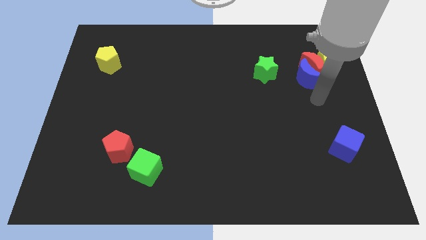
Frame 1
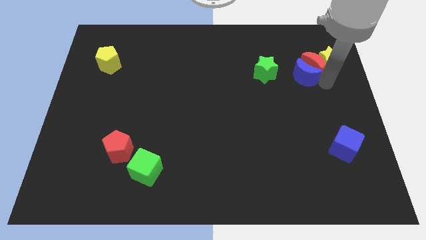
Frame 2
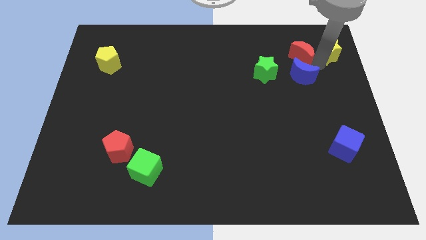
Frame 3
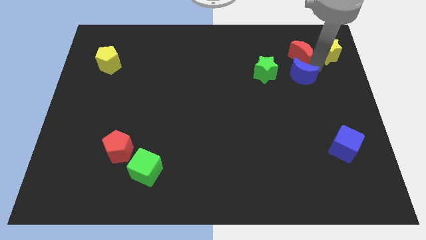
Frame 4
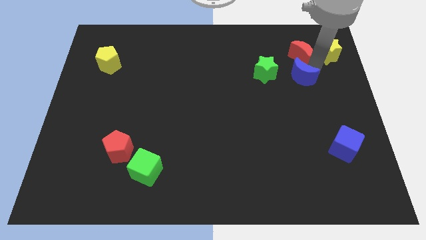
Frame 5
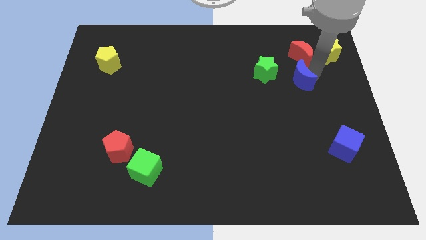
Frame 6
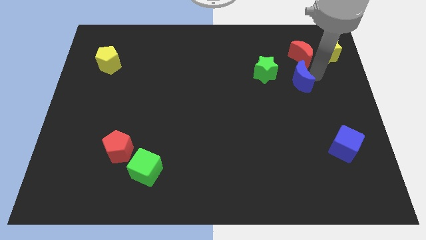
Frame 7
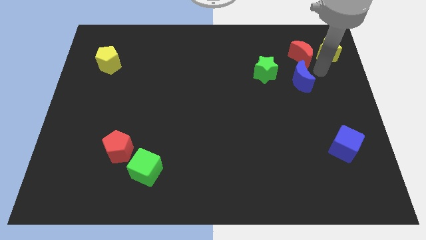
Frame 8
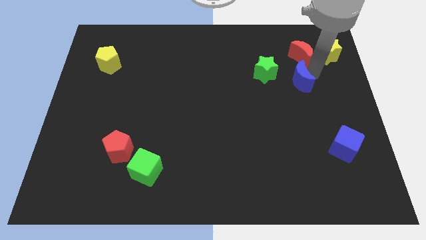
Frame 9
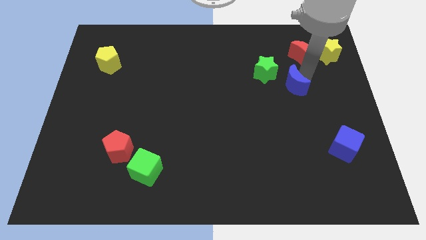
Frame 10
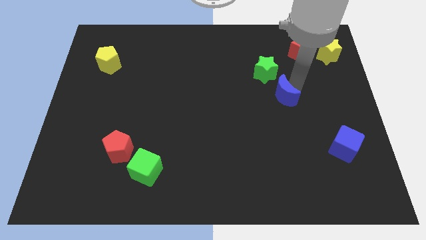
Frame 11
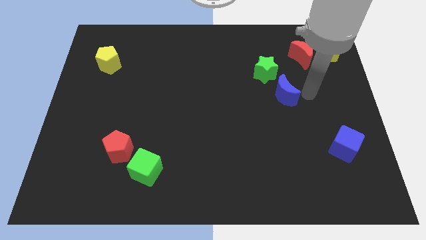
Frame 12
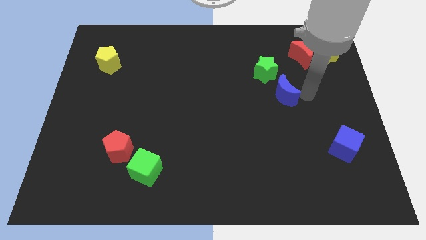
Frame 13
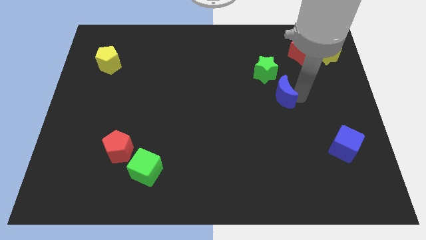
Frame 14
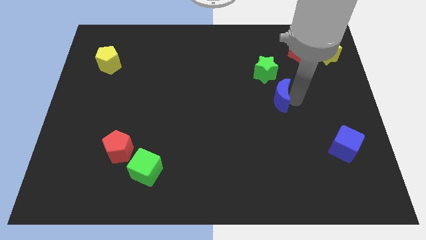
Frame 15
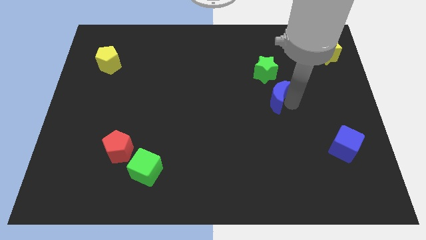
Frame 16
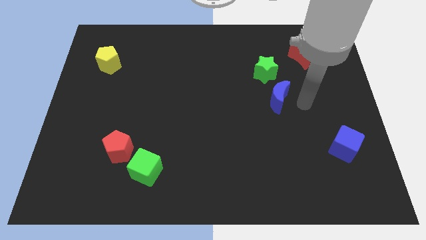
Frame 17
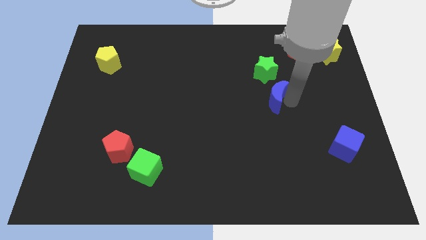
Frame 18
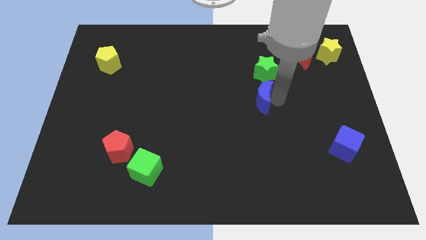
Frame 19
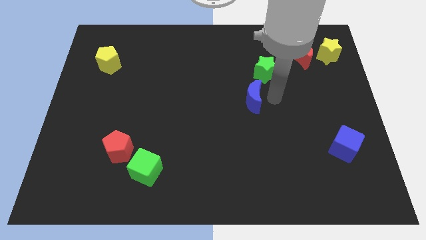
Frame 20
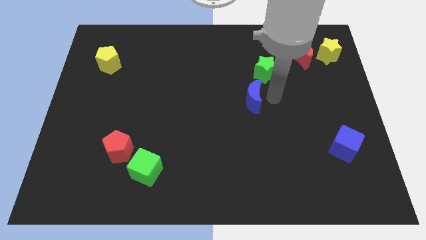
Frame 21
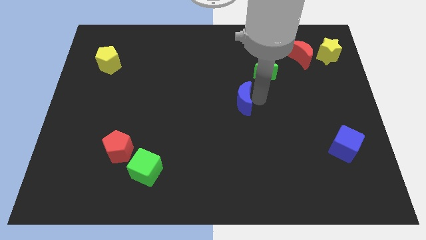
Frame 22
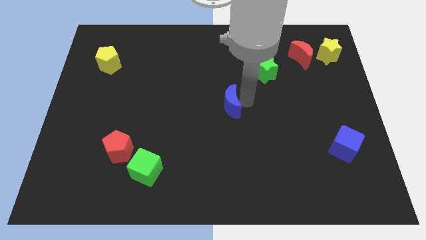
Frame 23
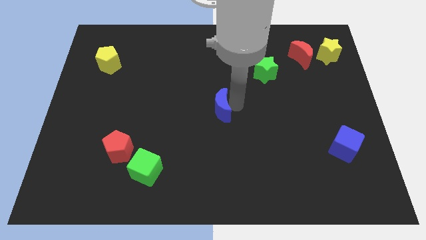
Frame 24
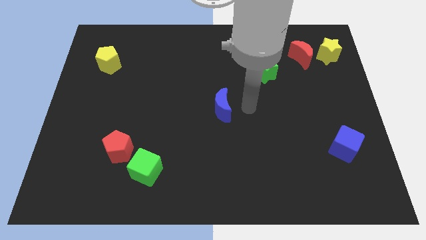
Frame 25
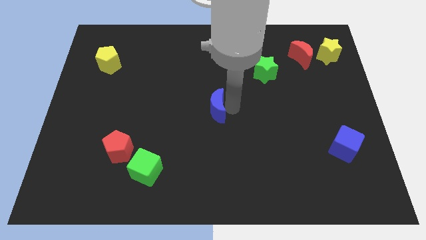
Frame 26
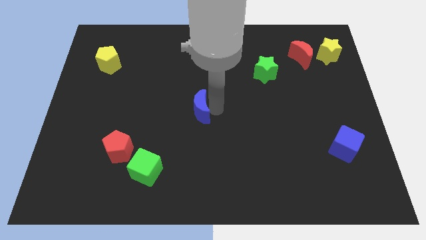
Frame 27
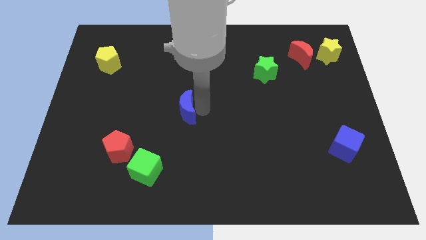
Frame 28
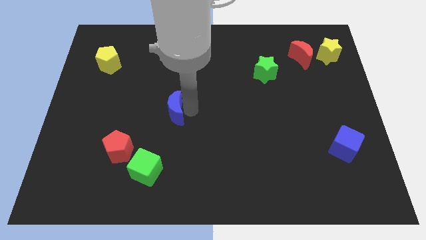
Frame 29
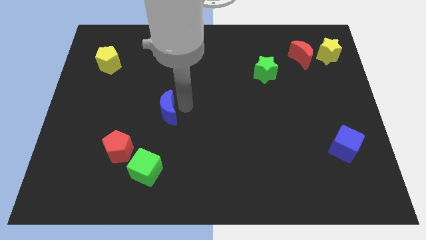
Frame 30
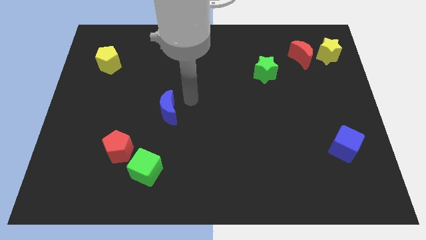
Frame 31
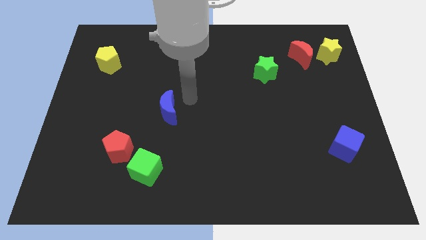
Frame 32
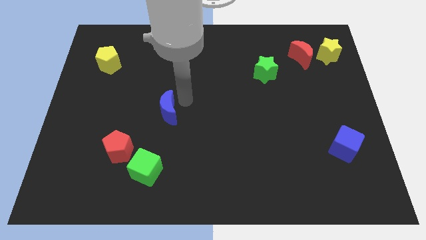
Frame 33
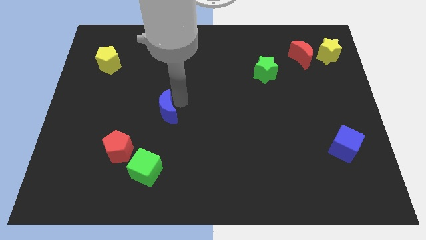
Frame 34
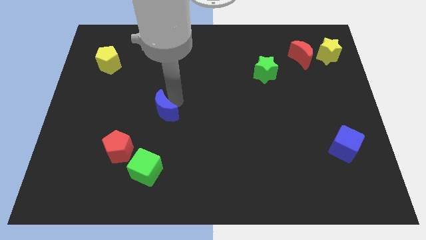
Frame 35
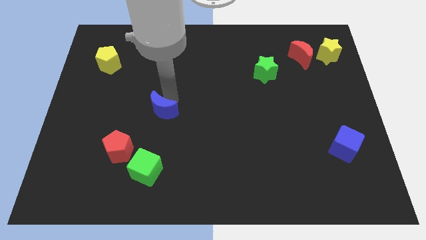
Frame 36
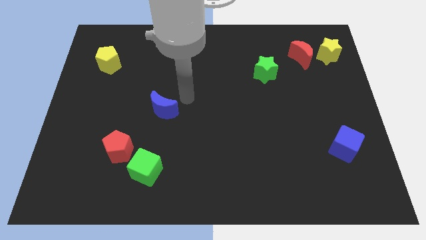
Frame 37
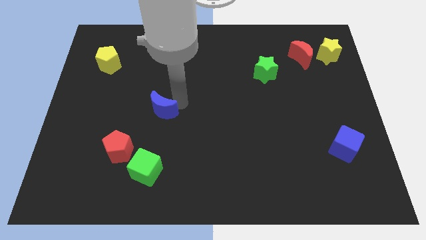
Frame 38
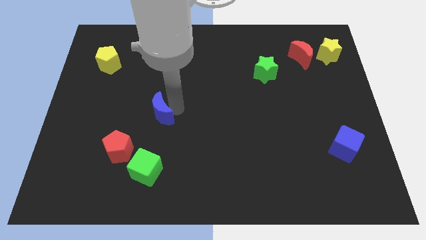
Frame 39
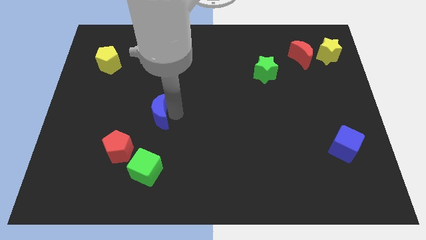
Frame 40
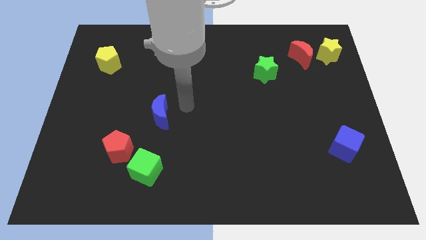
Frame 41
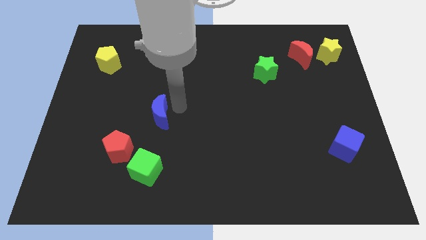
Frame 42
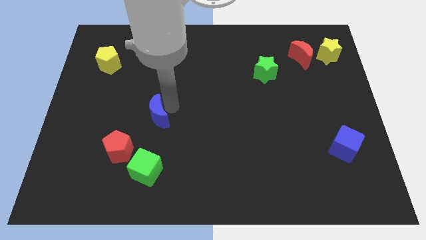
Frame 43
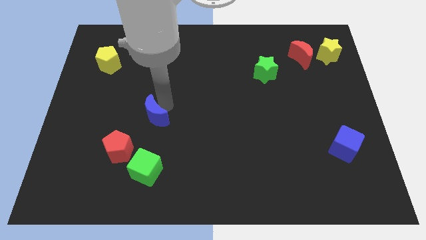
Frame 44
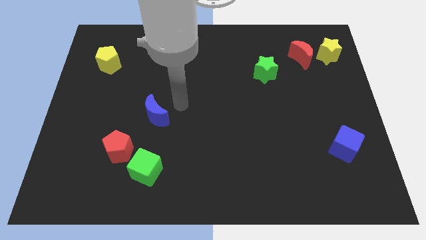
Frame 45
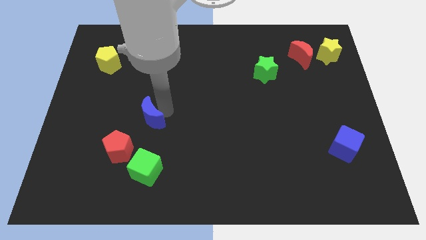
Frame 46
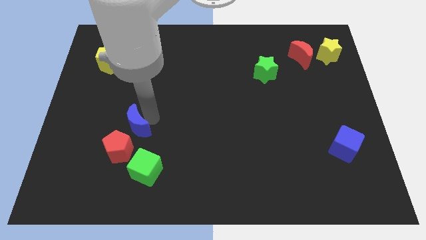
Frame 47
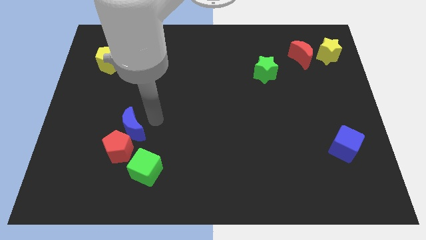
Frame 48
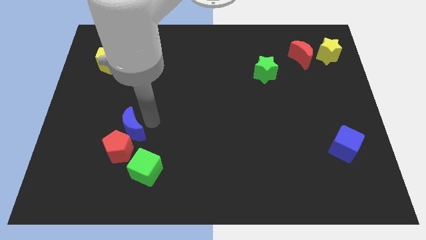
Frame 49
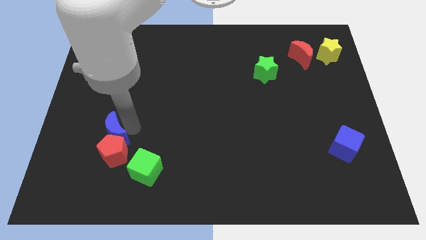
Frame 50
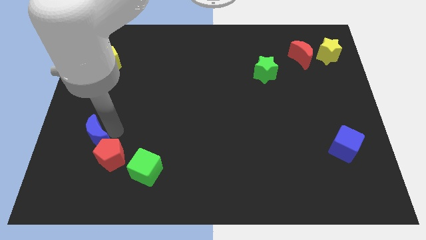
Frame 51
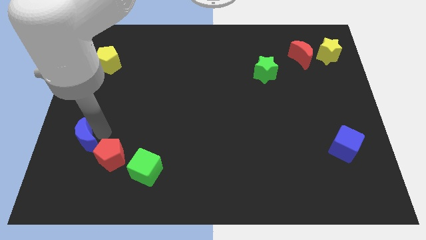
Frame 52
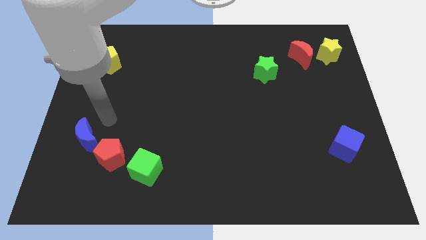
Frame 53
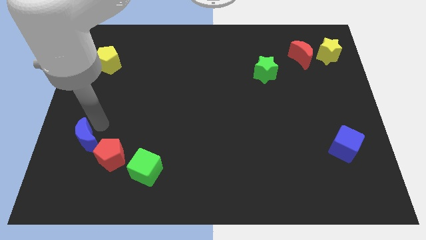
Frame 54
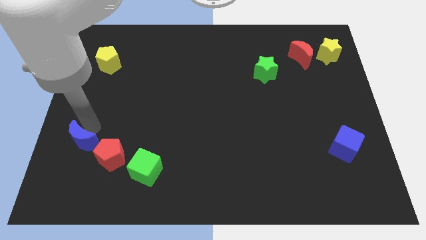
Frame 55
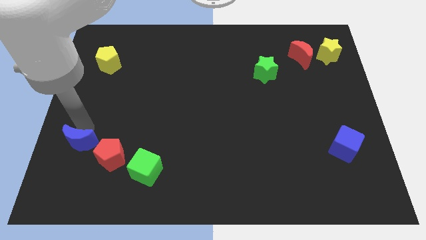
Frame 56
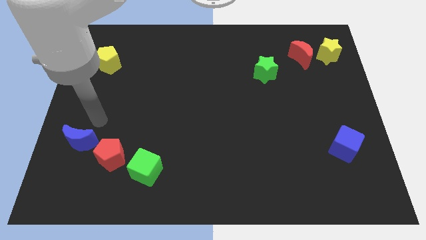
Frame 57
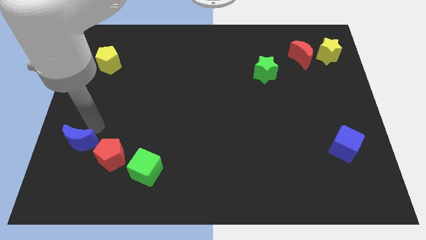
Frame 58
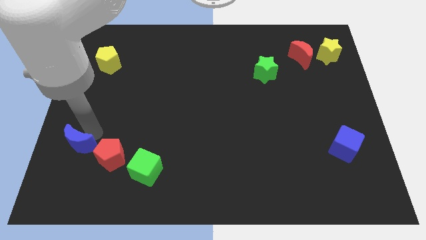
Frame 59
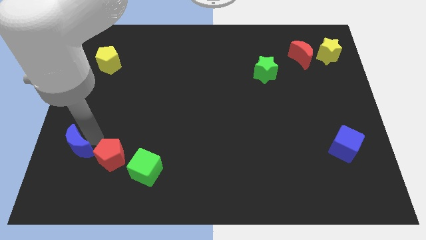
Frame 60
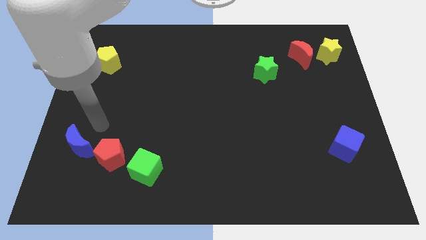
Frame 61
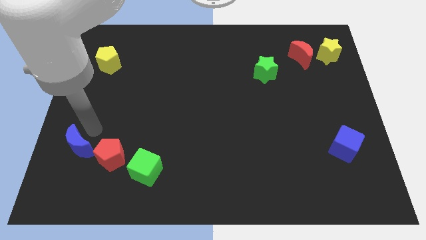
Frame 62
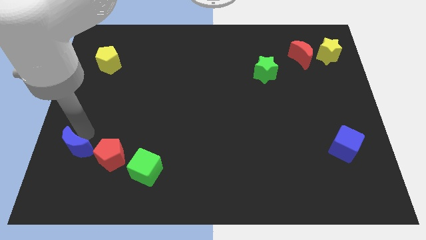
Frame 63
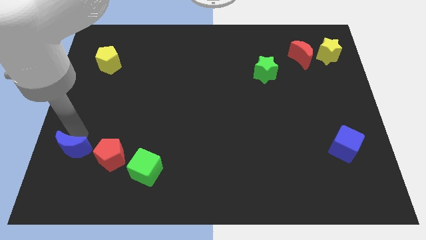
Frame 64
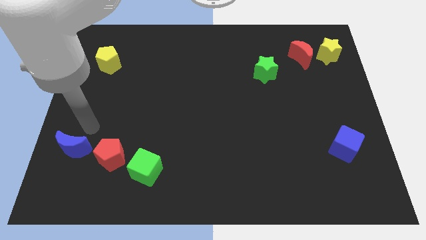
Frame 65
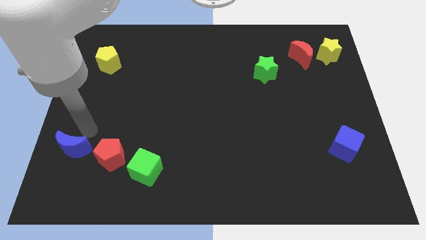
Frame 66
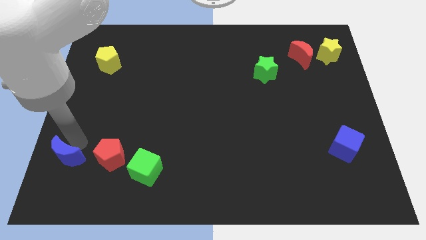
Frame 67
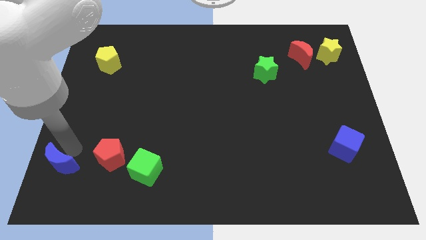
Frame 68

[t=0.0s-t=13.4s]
move the blue moon to the bottom left

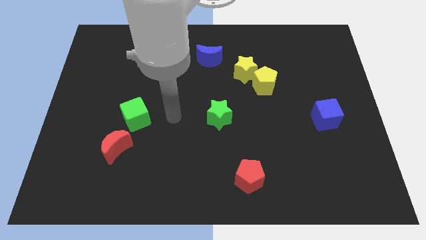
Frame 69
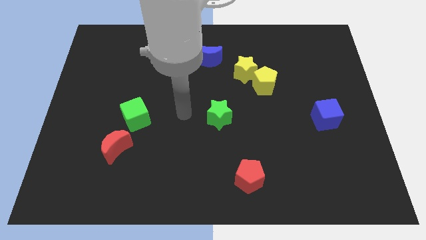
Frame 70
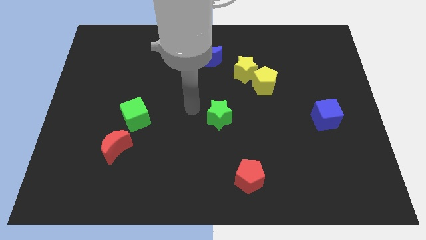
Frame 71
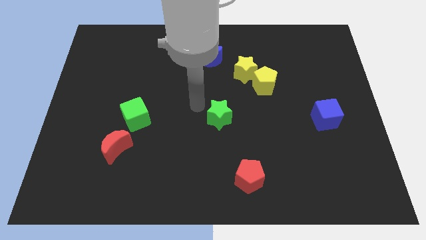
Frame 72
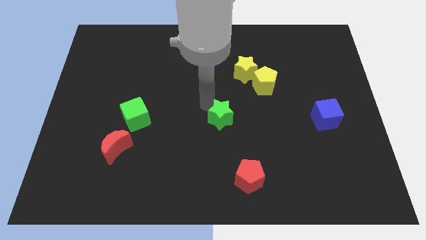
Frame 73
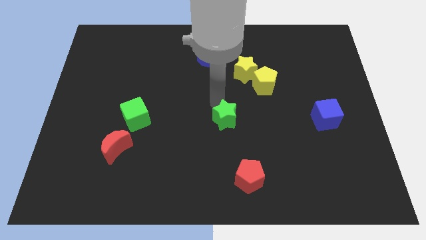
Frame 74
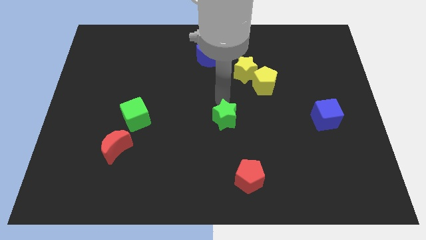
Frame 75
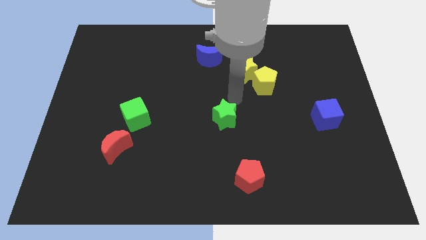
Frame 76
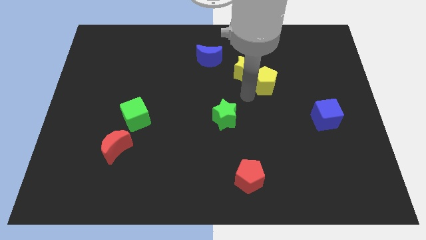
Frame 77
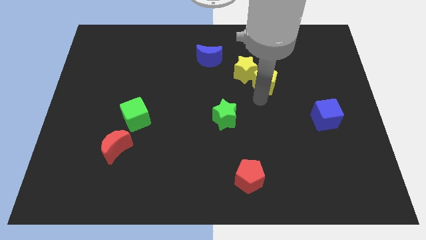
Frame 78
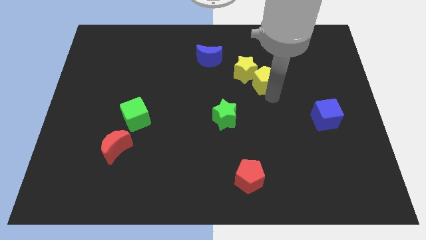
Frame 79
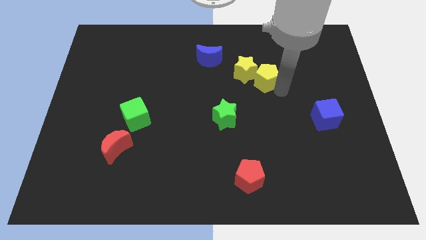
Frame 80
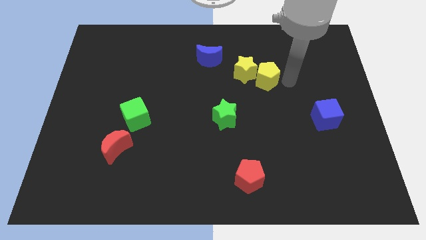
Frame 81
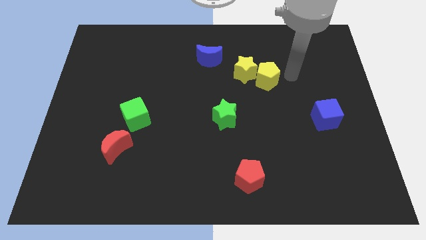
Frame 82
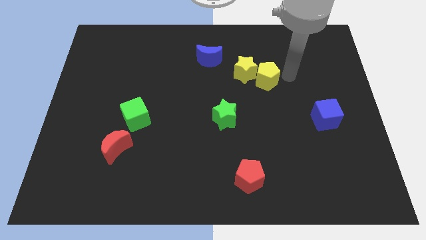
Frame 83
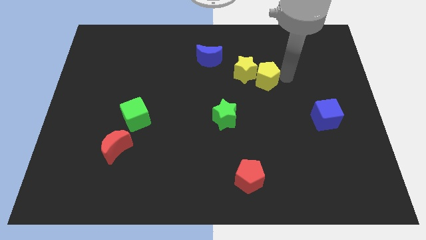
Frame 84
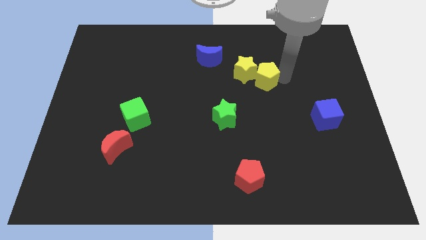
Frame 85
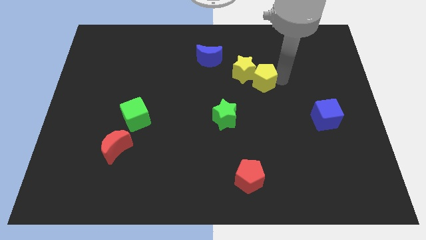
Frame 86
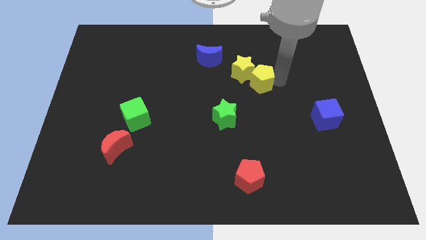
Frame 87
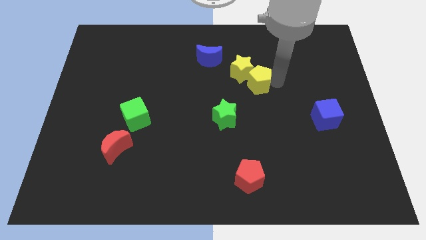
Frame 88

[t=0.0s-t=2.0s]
put the yellow pentagon to the middle of the board
